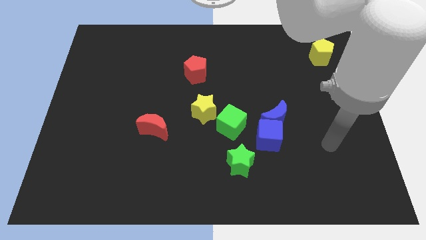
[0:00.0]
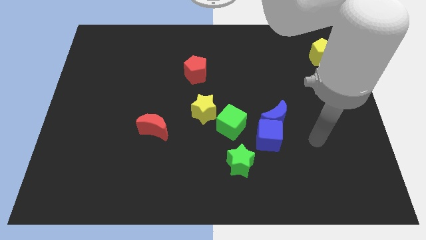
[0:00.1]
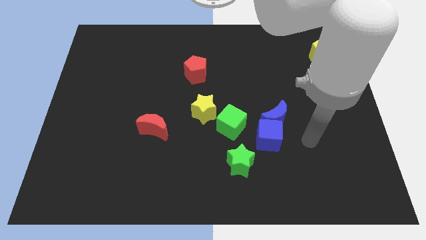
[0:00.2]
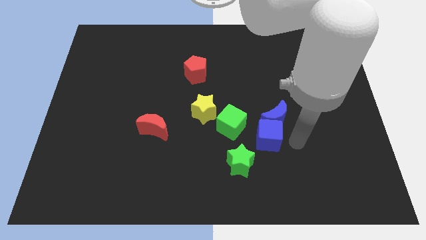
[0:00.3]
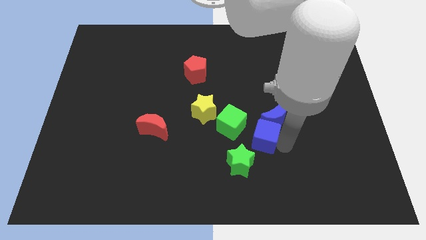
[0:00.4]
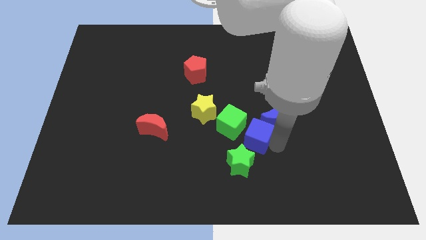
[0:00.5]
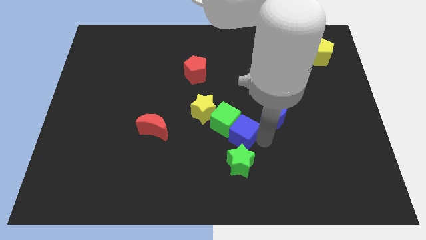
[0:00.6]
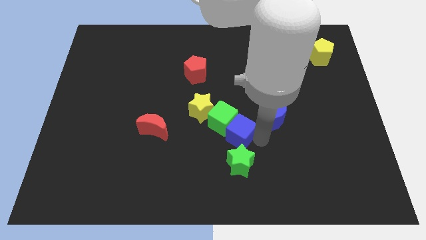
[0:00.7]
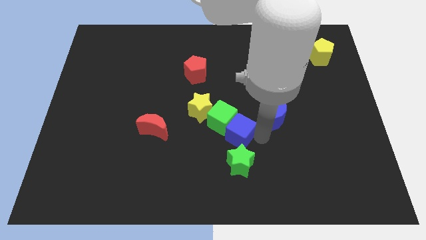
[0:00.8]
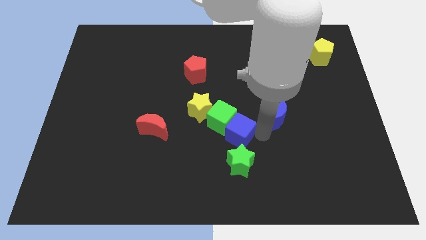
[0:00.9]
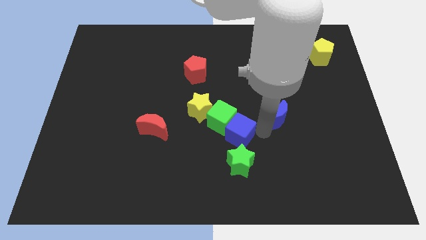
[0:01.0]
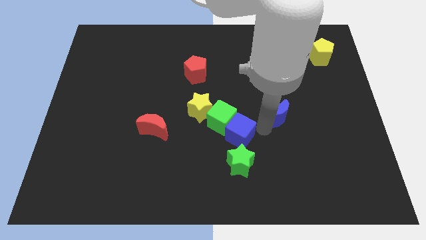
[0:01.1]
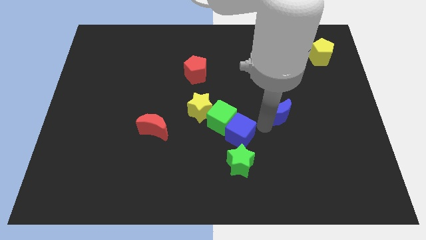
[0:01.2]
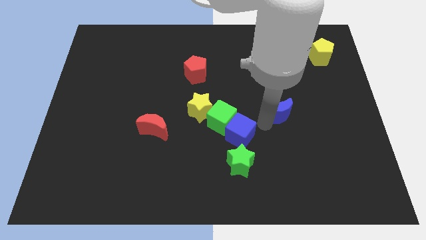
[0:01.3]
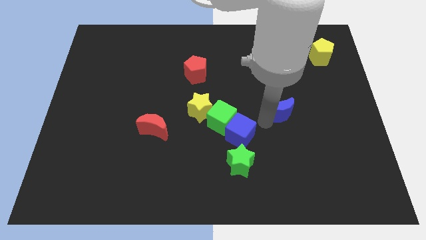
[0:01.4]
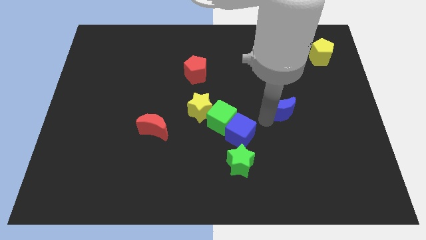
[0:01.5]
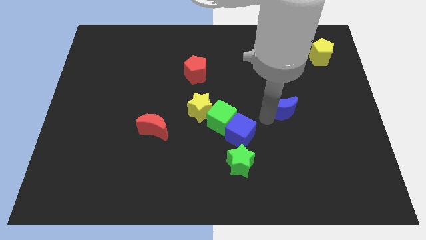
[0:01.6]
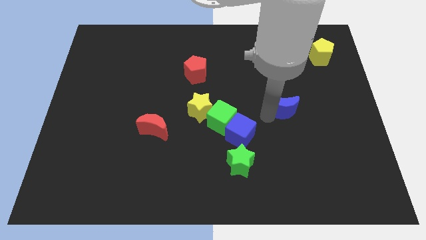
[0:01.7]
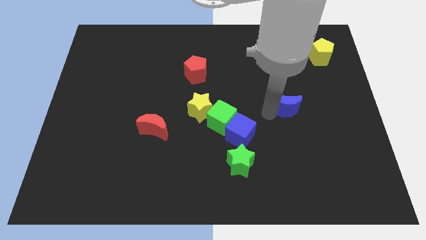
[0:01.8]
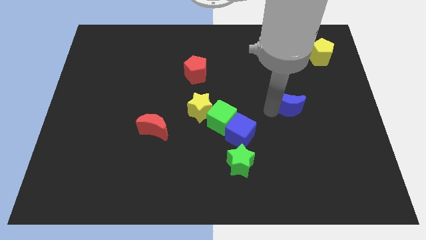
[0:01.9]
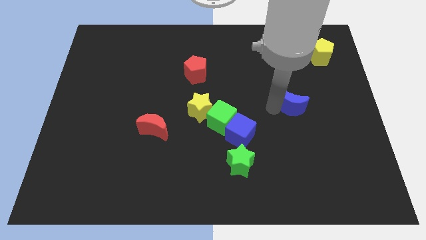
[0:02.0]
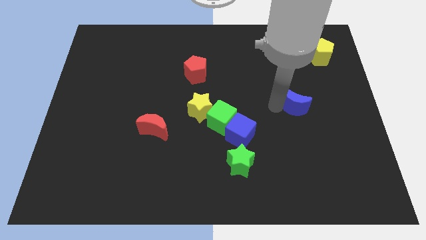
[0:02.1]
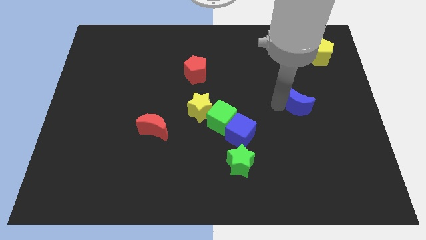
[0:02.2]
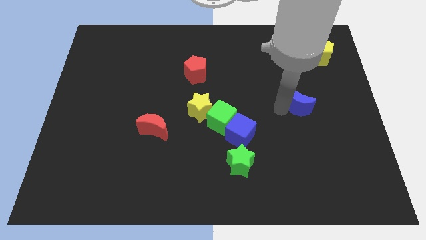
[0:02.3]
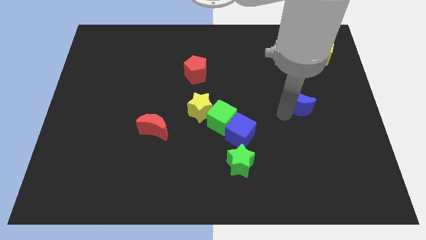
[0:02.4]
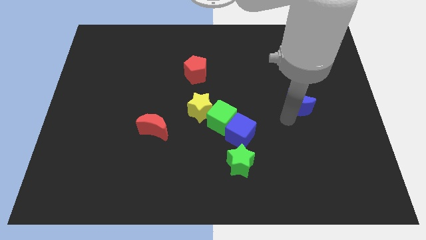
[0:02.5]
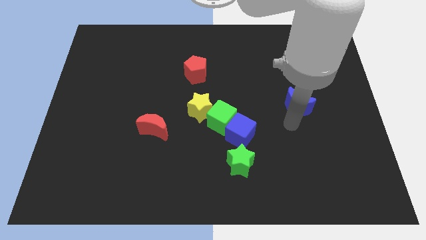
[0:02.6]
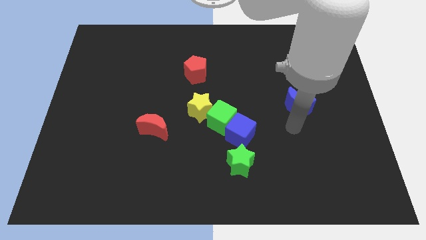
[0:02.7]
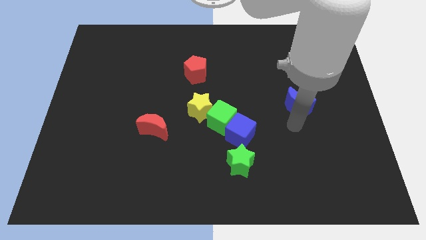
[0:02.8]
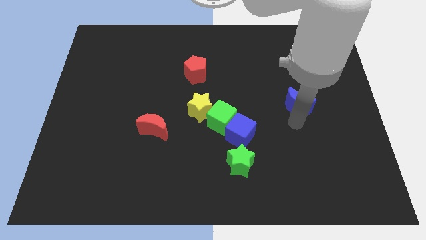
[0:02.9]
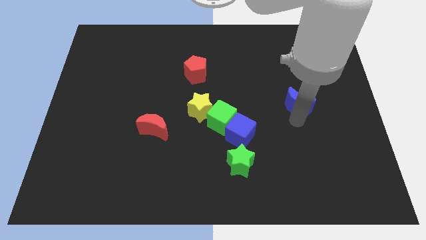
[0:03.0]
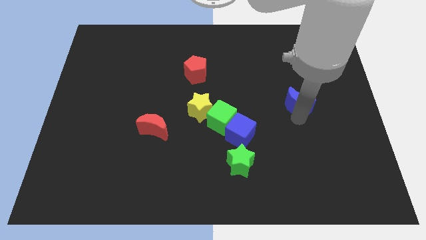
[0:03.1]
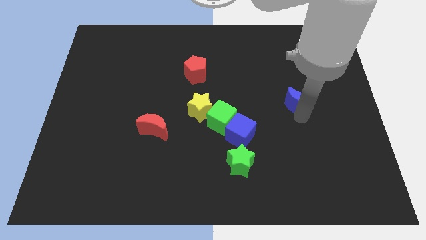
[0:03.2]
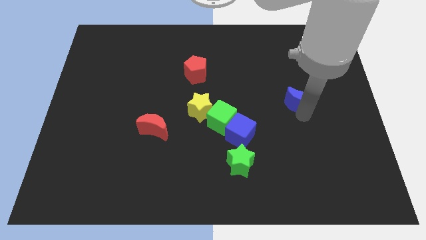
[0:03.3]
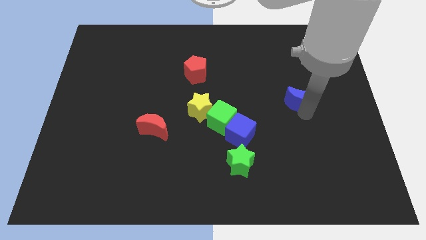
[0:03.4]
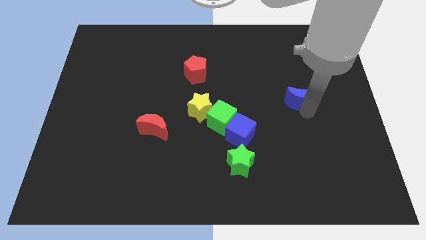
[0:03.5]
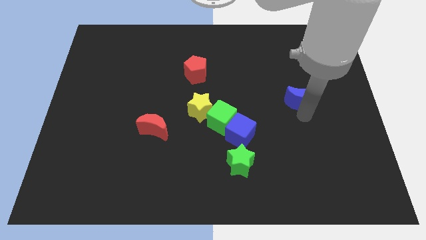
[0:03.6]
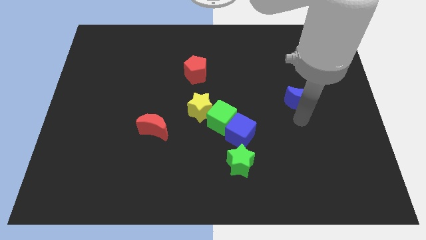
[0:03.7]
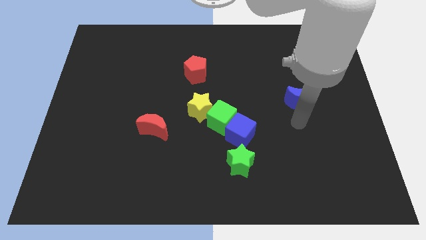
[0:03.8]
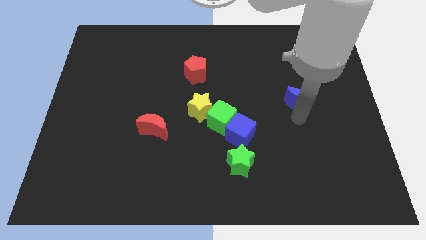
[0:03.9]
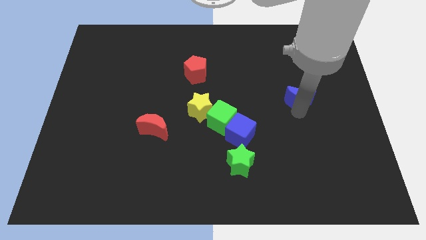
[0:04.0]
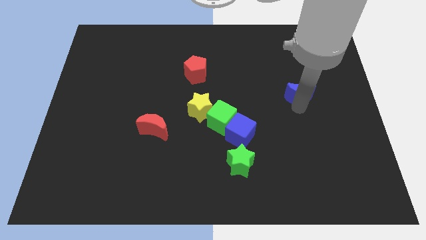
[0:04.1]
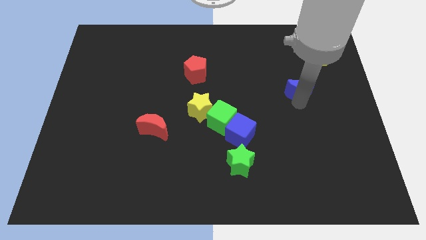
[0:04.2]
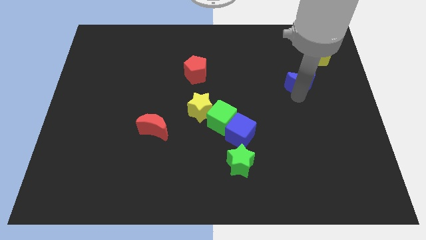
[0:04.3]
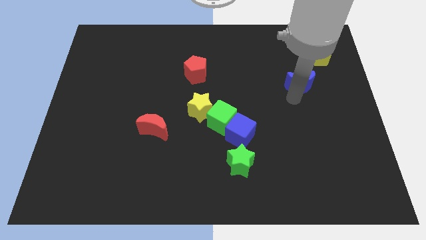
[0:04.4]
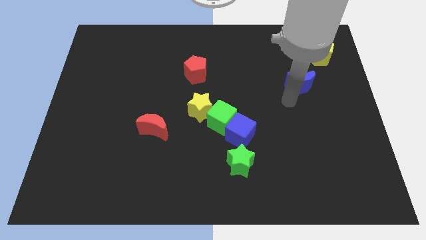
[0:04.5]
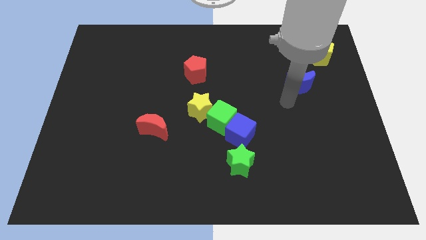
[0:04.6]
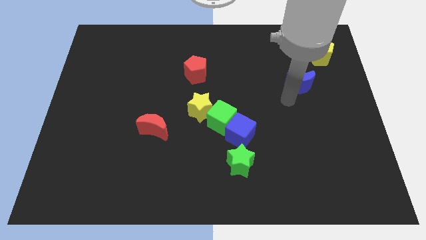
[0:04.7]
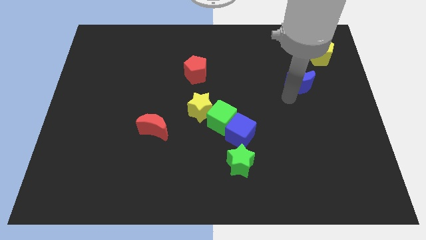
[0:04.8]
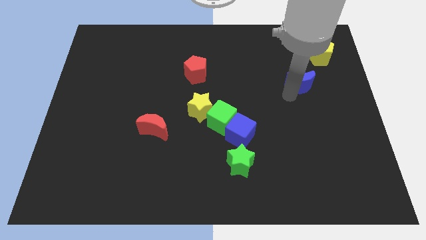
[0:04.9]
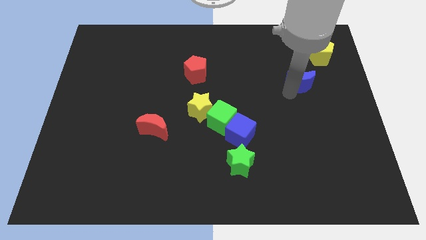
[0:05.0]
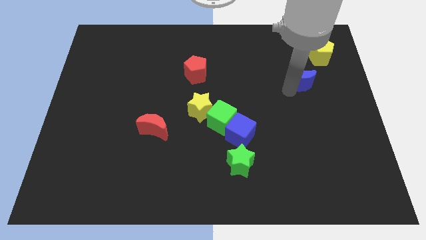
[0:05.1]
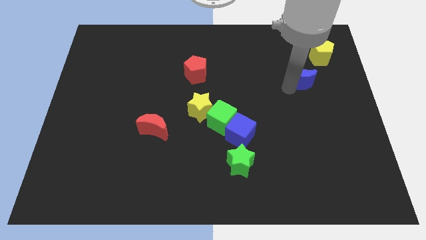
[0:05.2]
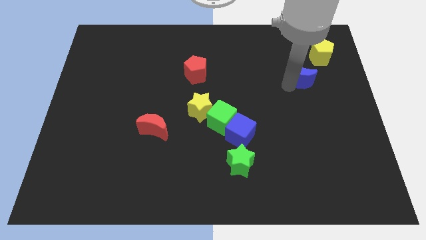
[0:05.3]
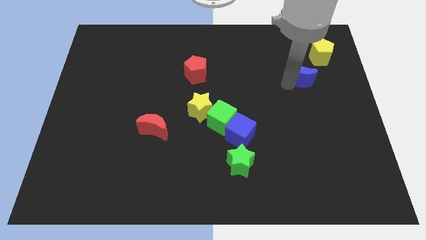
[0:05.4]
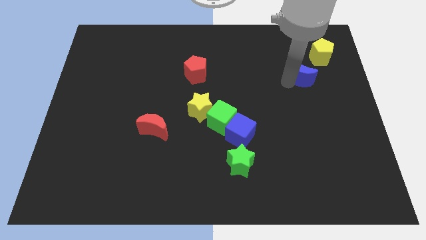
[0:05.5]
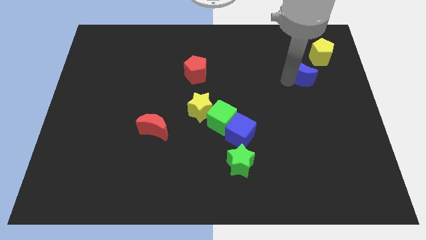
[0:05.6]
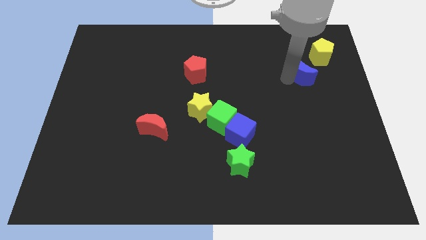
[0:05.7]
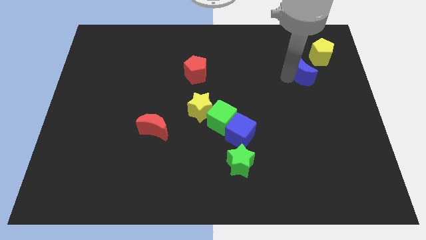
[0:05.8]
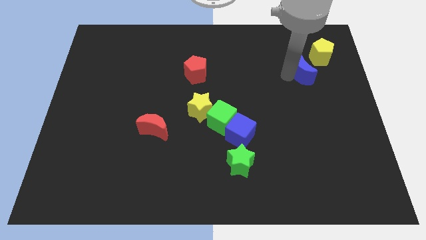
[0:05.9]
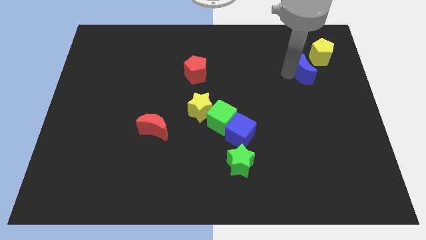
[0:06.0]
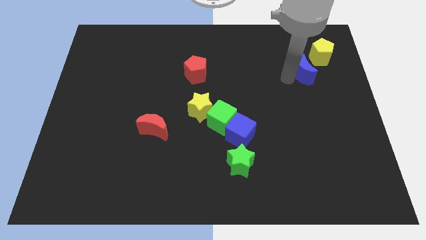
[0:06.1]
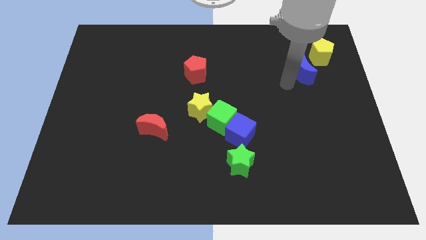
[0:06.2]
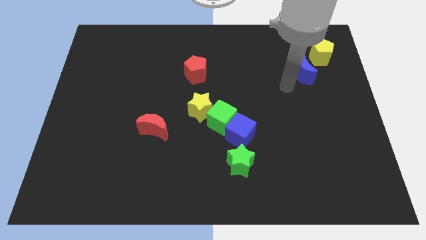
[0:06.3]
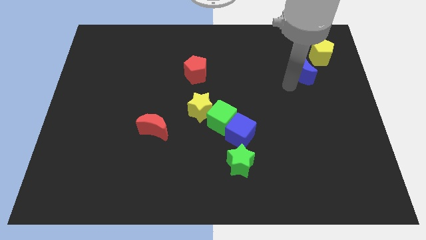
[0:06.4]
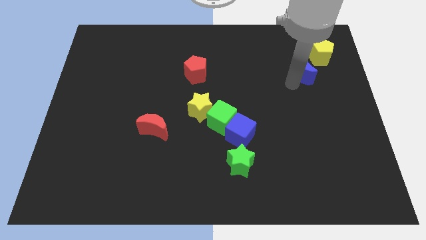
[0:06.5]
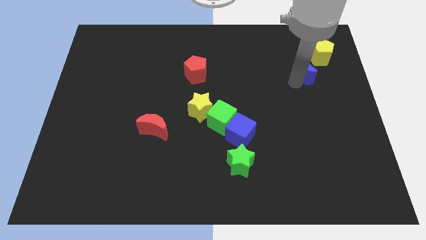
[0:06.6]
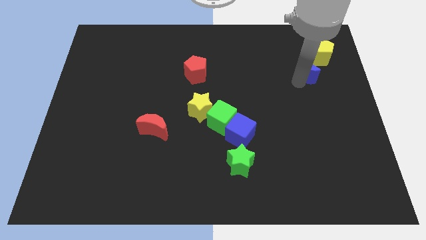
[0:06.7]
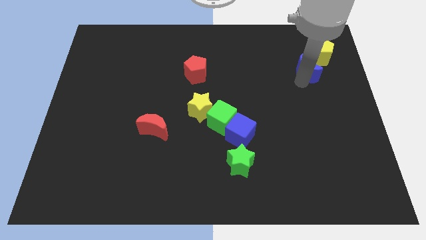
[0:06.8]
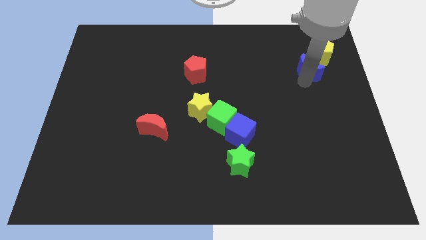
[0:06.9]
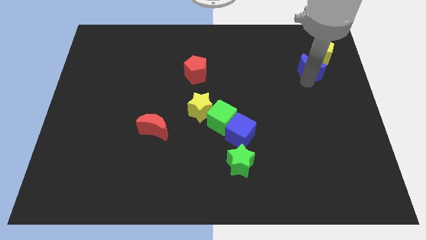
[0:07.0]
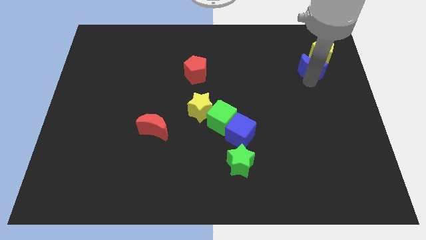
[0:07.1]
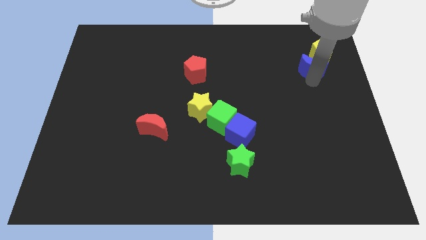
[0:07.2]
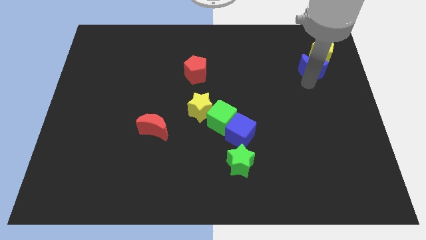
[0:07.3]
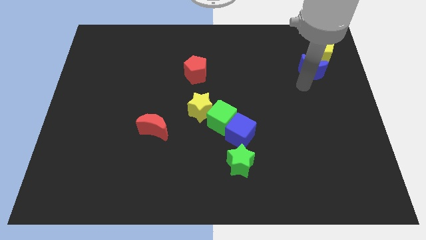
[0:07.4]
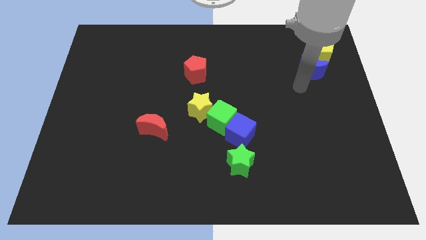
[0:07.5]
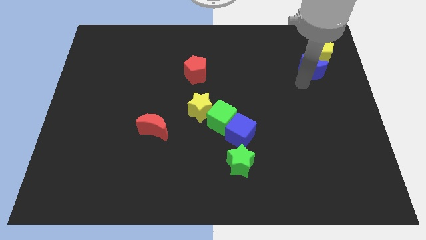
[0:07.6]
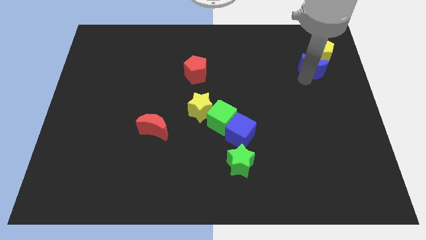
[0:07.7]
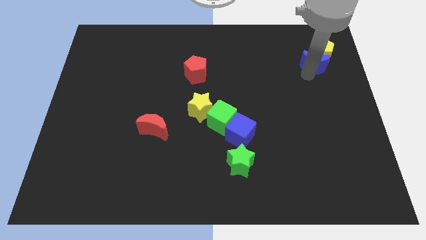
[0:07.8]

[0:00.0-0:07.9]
push the blue moon next to the yellow pentagon
